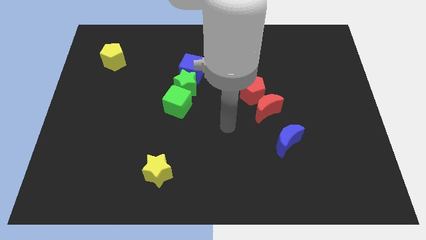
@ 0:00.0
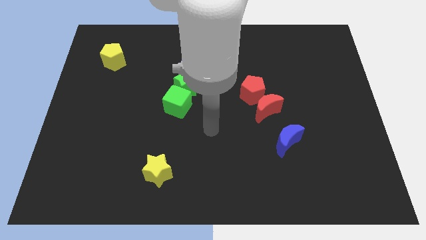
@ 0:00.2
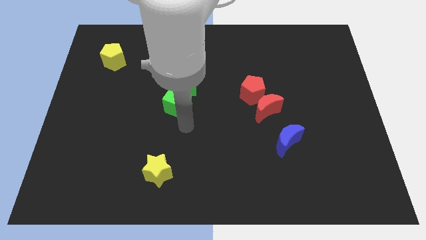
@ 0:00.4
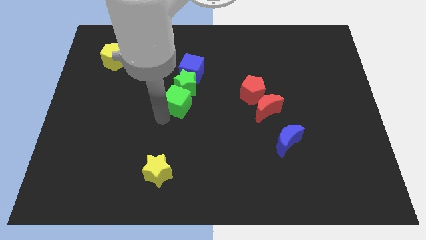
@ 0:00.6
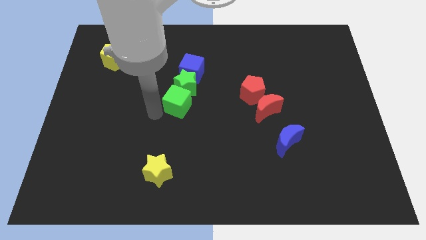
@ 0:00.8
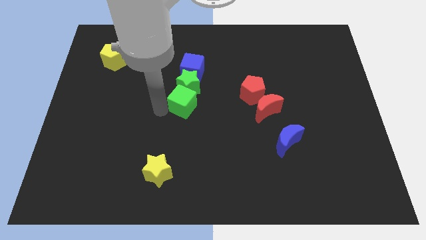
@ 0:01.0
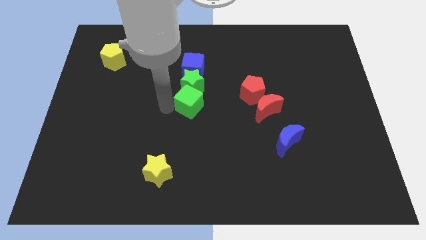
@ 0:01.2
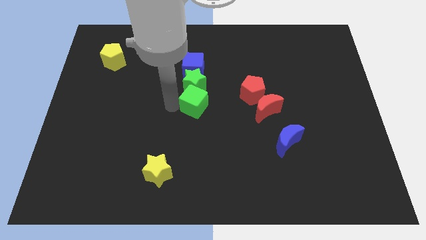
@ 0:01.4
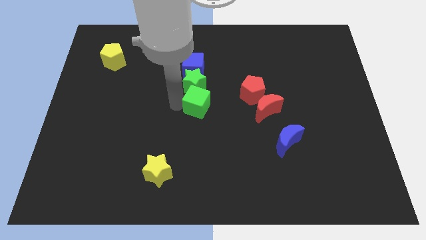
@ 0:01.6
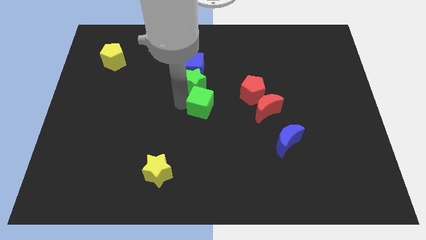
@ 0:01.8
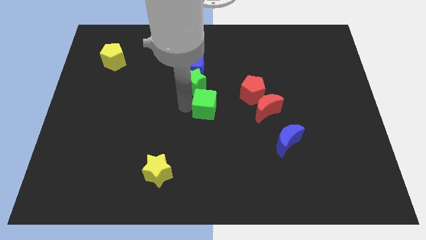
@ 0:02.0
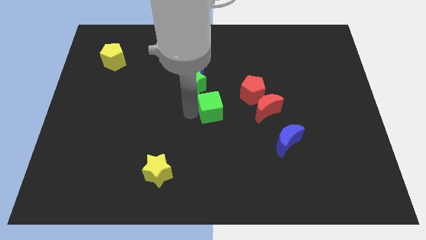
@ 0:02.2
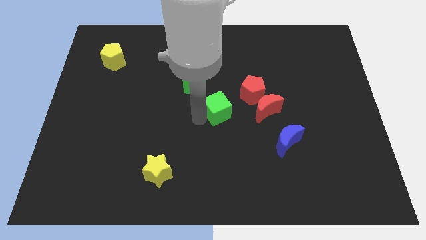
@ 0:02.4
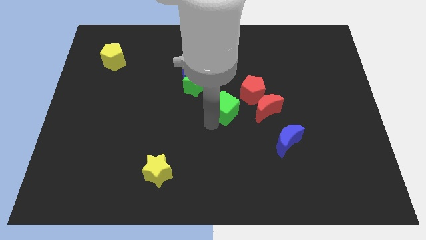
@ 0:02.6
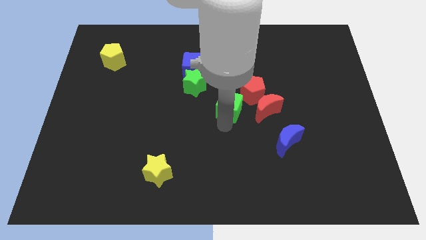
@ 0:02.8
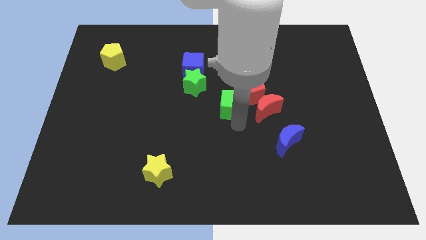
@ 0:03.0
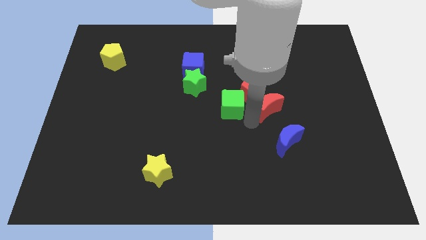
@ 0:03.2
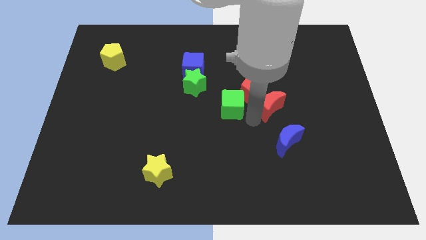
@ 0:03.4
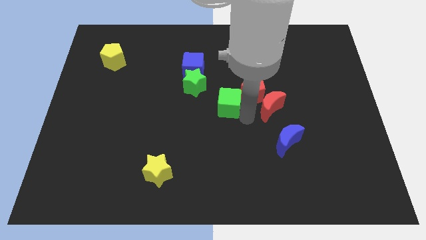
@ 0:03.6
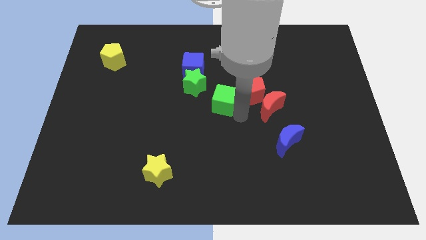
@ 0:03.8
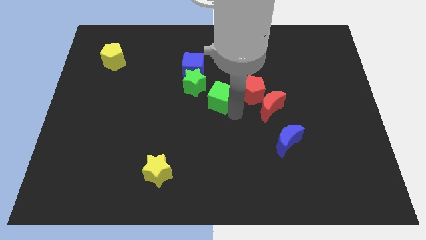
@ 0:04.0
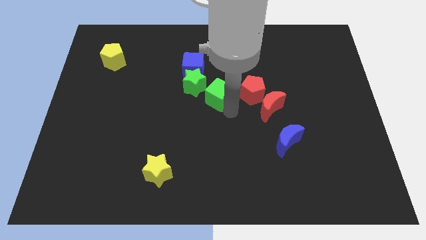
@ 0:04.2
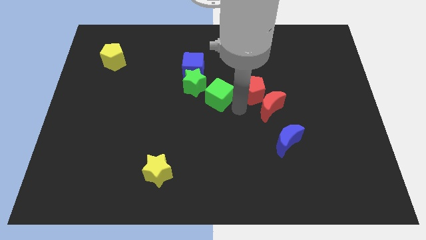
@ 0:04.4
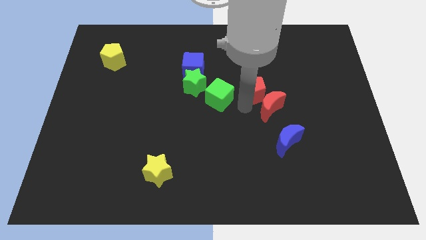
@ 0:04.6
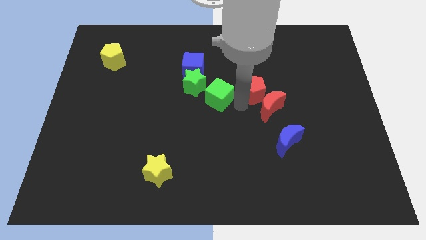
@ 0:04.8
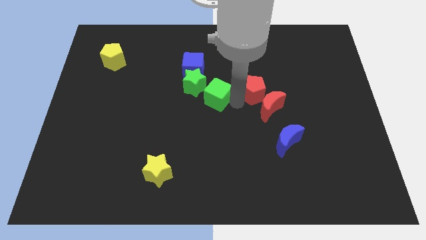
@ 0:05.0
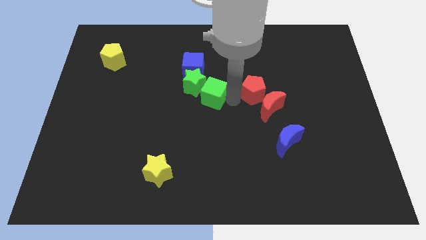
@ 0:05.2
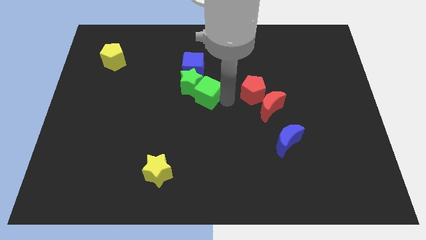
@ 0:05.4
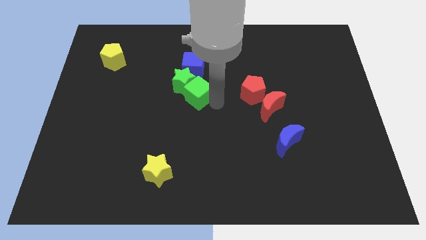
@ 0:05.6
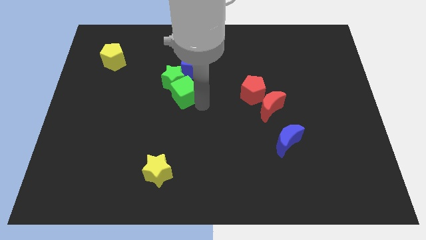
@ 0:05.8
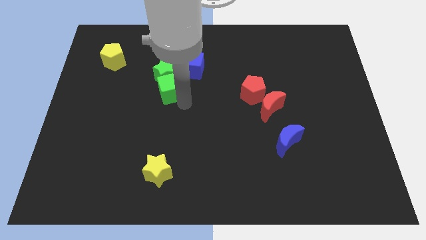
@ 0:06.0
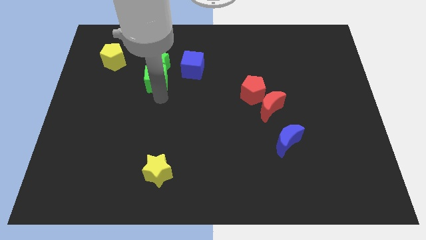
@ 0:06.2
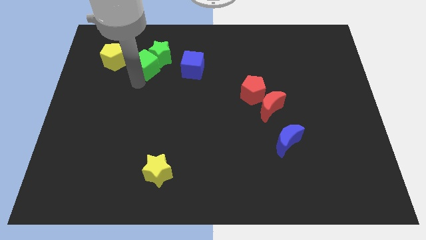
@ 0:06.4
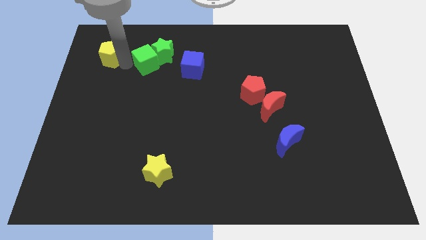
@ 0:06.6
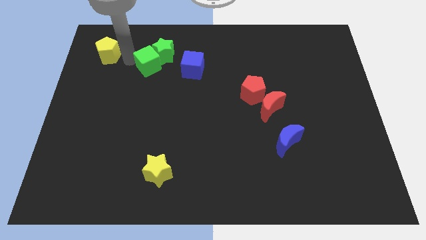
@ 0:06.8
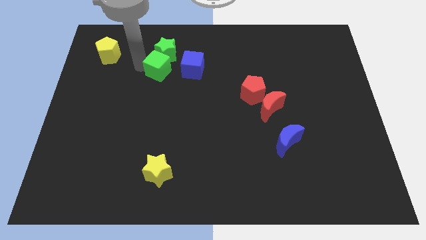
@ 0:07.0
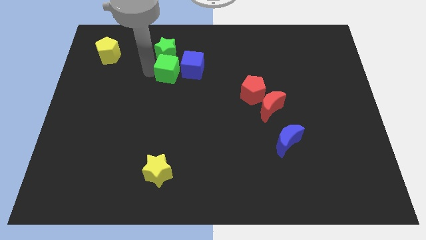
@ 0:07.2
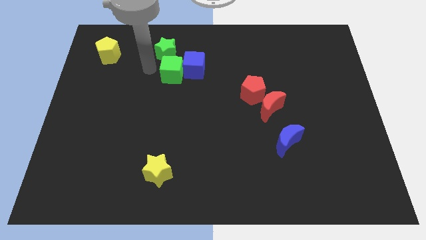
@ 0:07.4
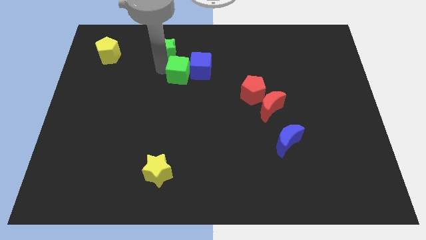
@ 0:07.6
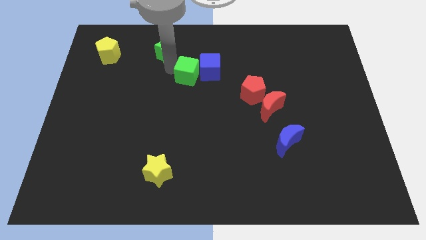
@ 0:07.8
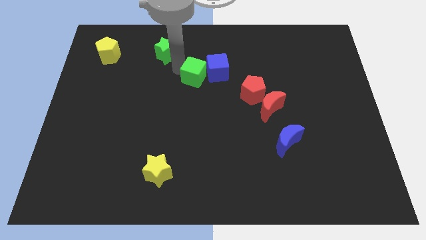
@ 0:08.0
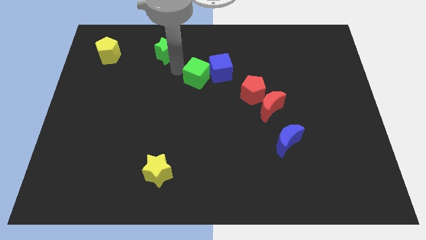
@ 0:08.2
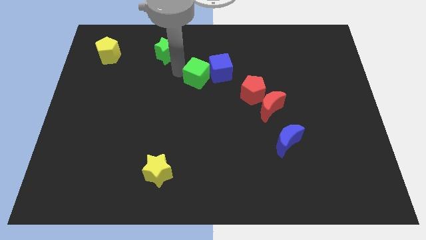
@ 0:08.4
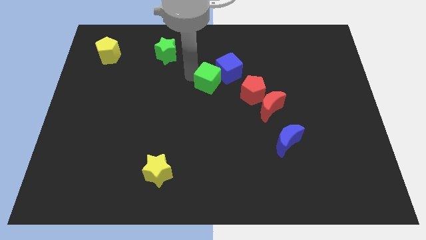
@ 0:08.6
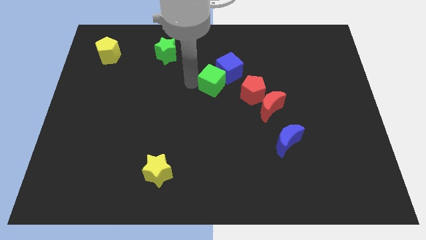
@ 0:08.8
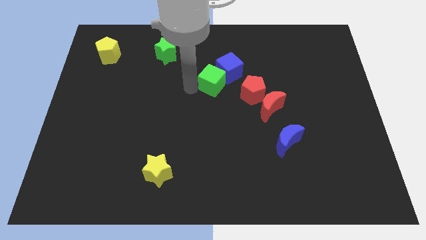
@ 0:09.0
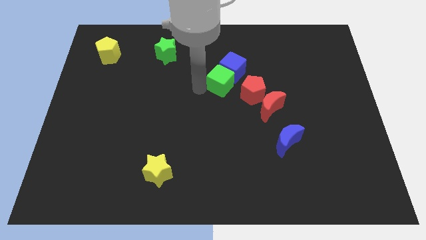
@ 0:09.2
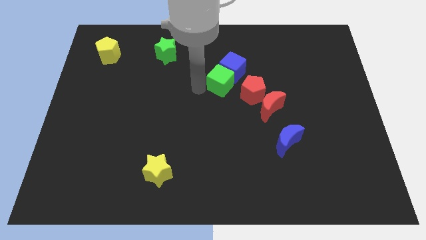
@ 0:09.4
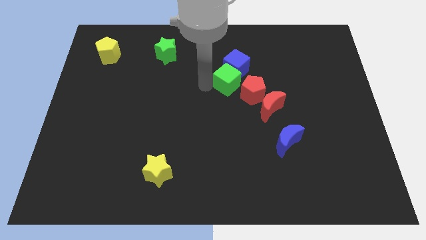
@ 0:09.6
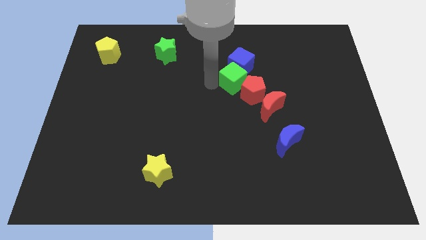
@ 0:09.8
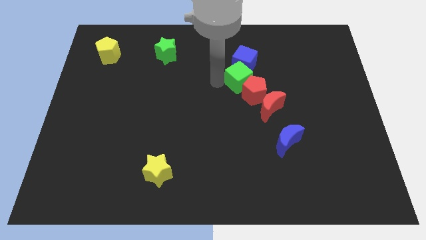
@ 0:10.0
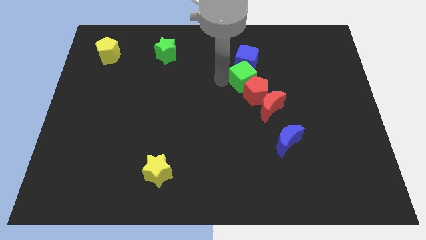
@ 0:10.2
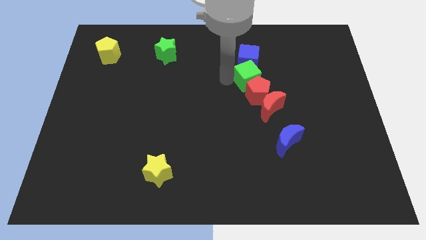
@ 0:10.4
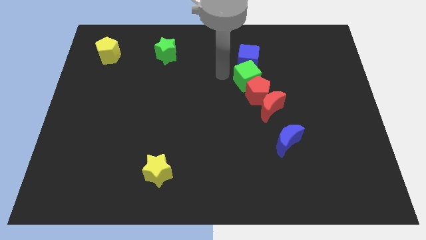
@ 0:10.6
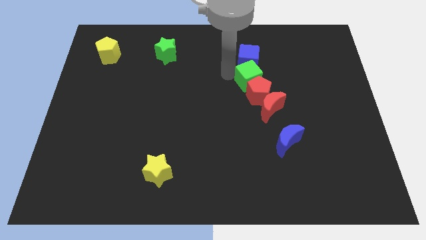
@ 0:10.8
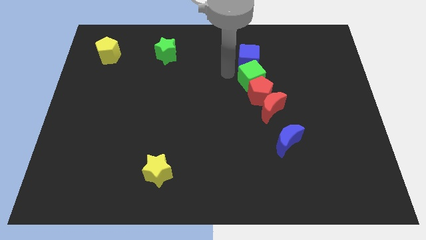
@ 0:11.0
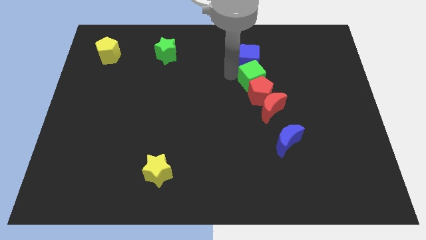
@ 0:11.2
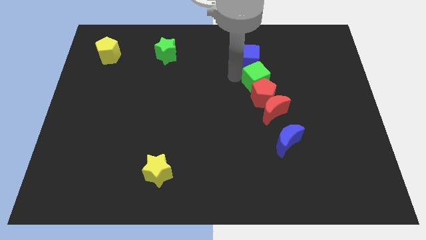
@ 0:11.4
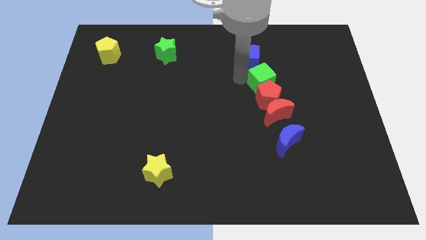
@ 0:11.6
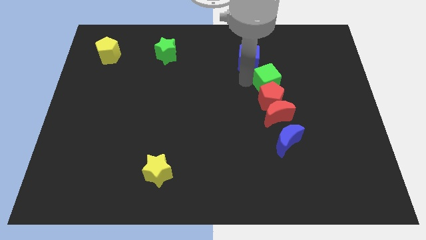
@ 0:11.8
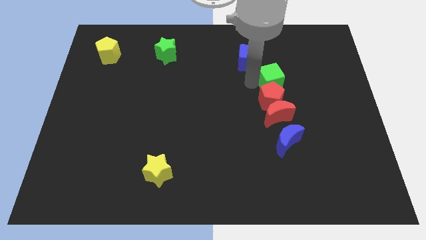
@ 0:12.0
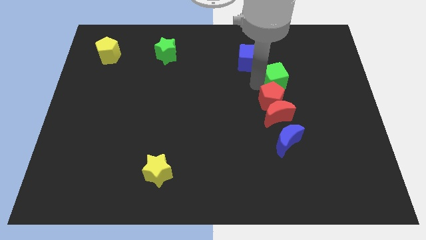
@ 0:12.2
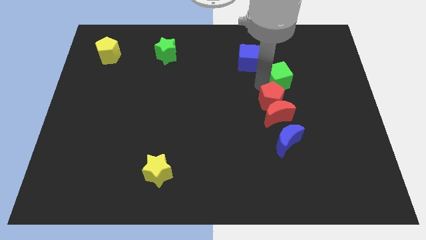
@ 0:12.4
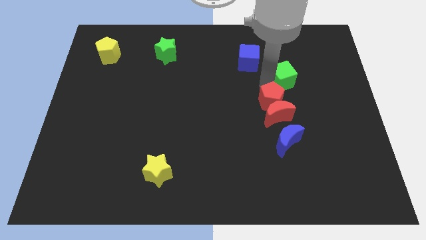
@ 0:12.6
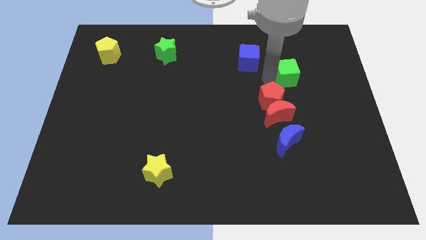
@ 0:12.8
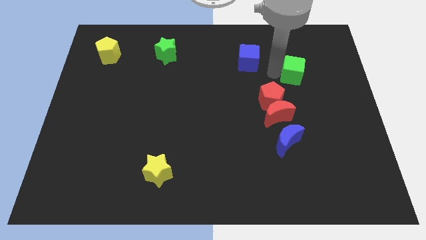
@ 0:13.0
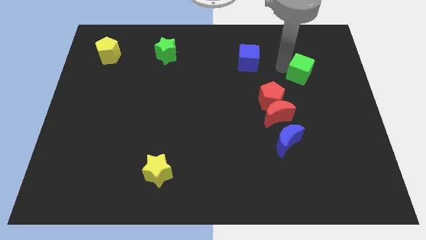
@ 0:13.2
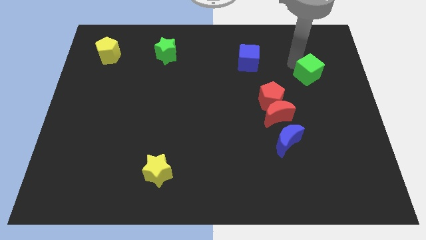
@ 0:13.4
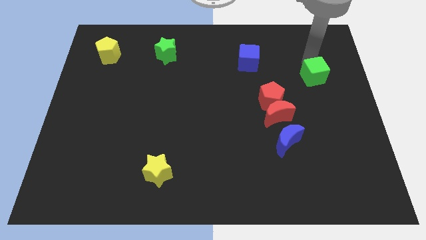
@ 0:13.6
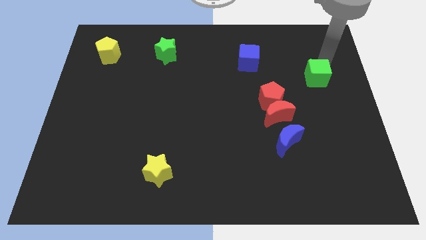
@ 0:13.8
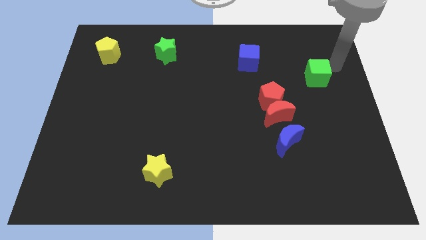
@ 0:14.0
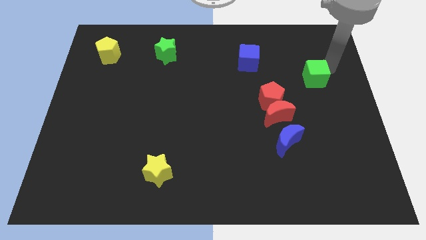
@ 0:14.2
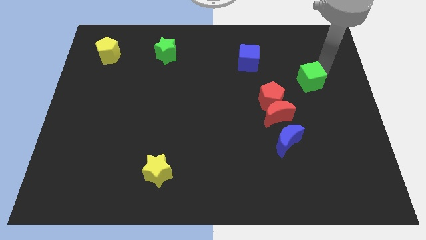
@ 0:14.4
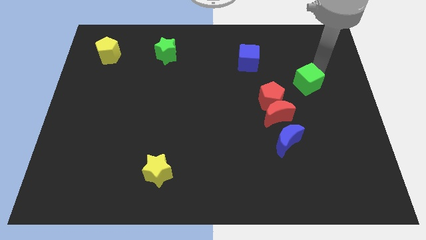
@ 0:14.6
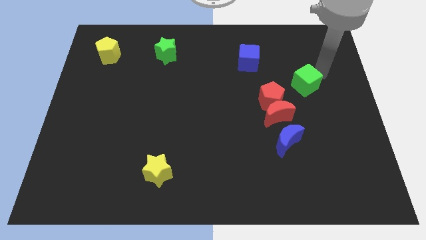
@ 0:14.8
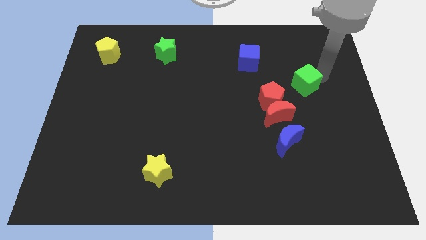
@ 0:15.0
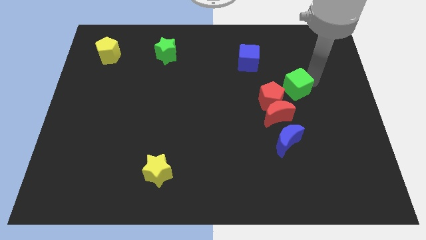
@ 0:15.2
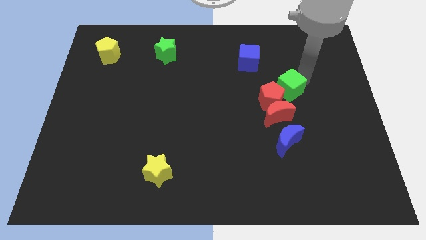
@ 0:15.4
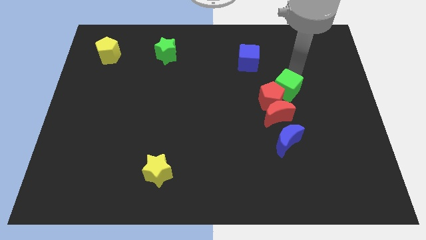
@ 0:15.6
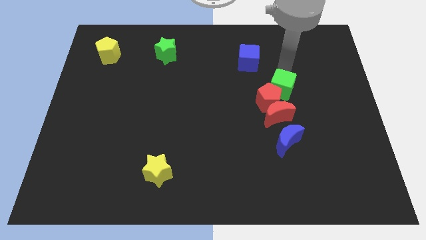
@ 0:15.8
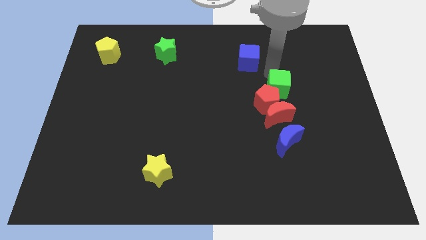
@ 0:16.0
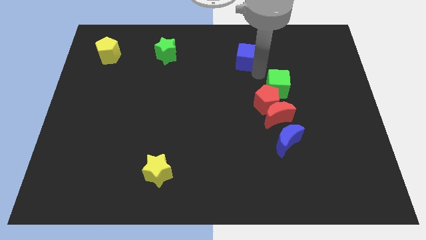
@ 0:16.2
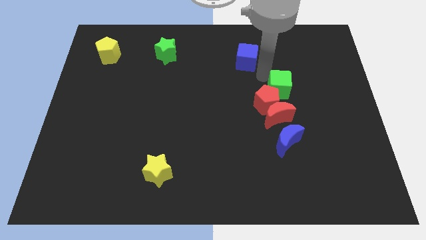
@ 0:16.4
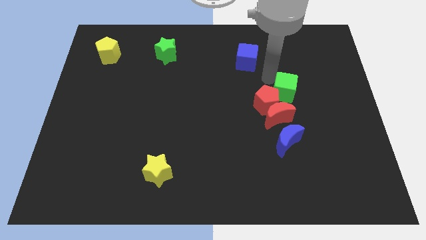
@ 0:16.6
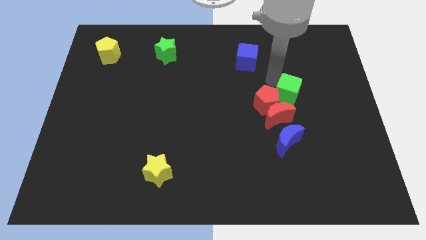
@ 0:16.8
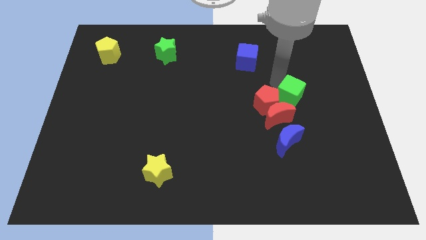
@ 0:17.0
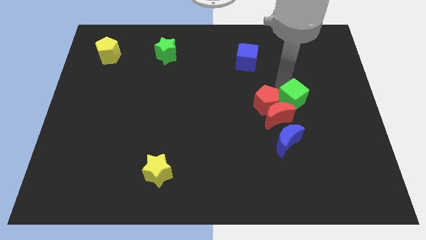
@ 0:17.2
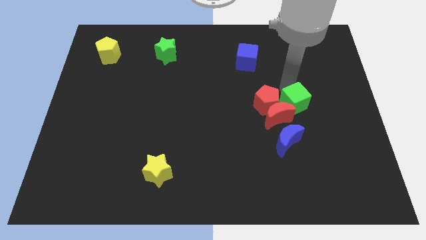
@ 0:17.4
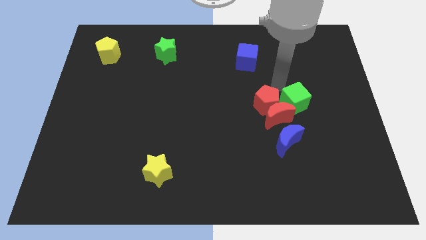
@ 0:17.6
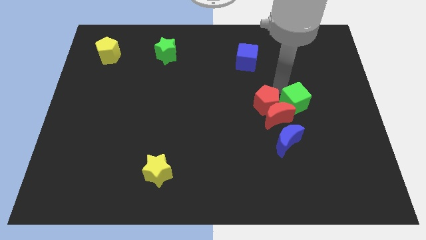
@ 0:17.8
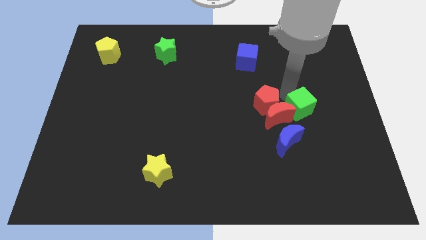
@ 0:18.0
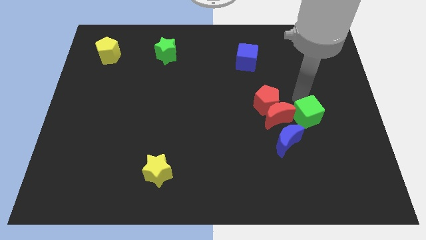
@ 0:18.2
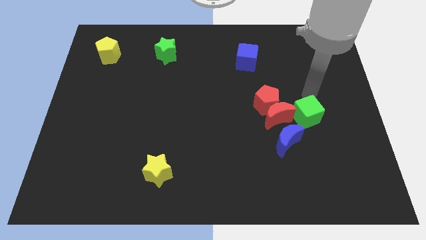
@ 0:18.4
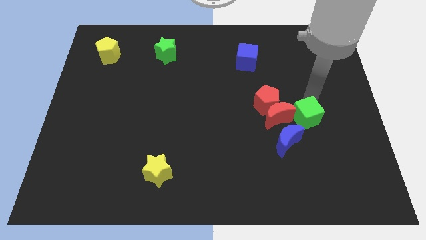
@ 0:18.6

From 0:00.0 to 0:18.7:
slide the green cube to the bottom right of the red moon
